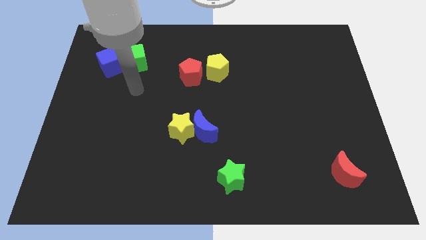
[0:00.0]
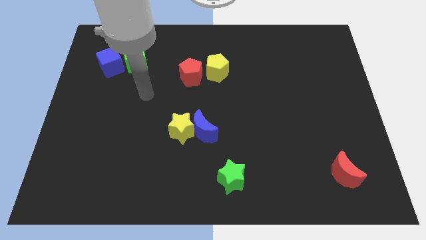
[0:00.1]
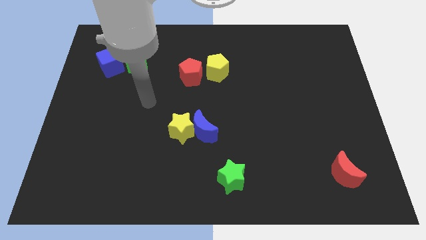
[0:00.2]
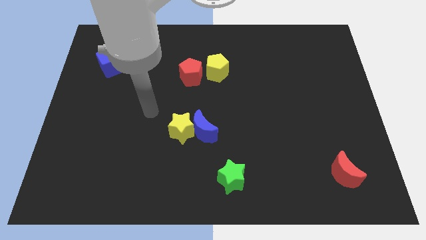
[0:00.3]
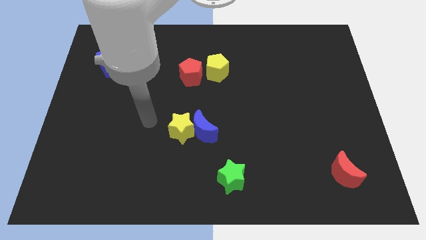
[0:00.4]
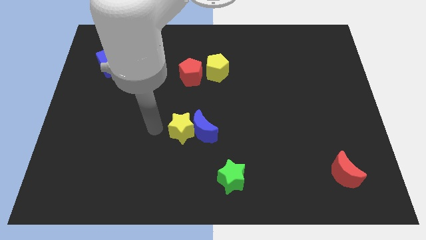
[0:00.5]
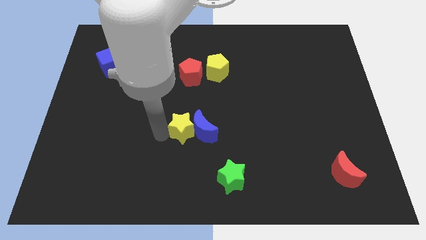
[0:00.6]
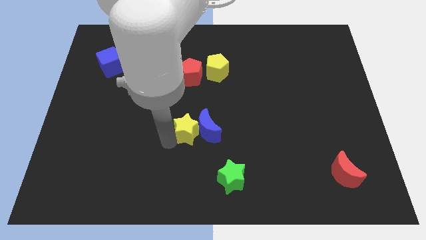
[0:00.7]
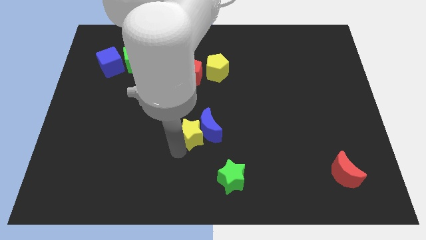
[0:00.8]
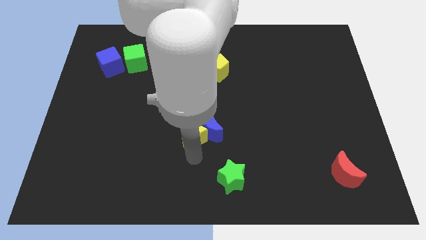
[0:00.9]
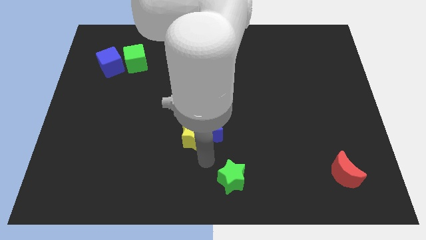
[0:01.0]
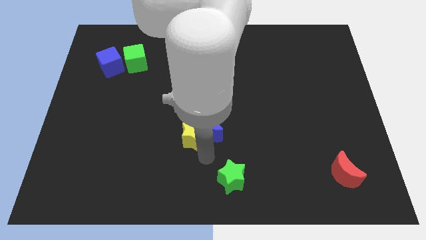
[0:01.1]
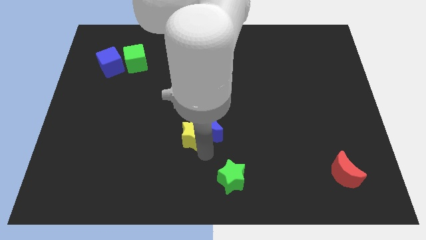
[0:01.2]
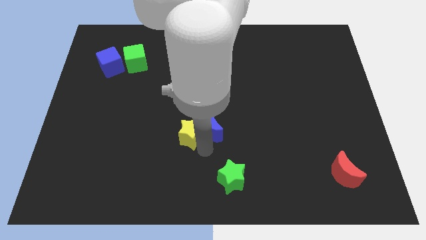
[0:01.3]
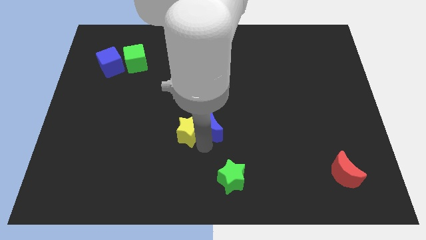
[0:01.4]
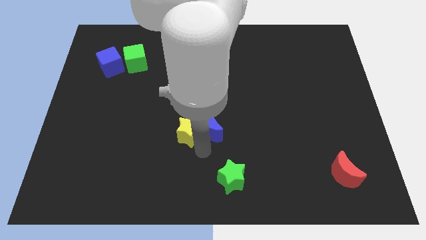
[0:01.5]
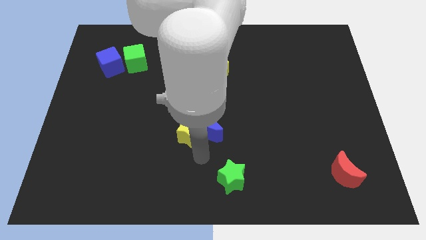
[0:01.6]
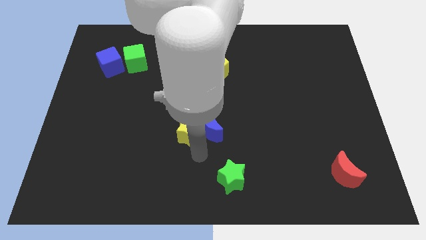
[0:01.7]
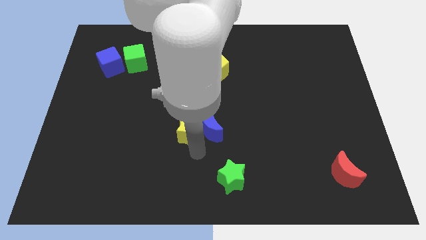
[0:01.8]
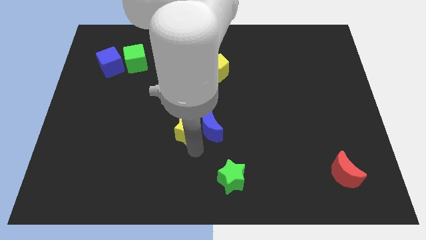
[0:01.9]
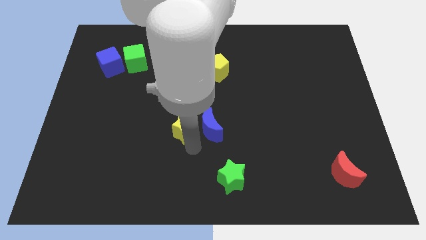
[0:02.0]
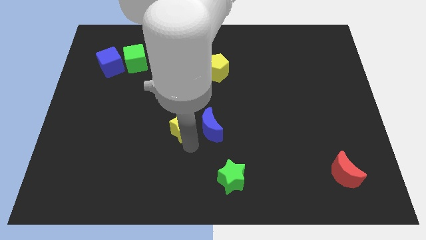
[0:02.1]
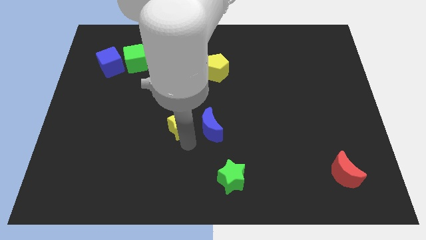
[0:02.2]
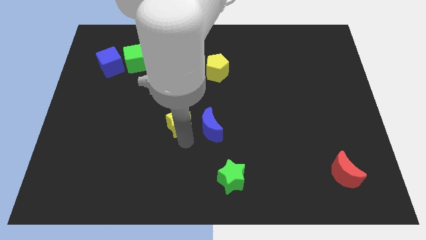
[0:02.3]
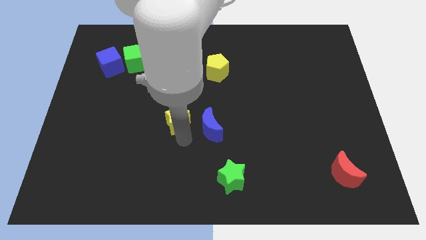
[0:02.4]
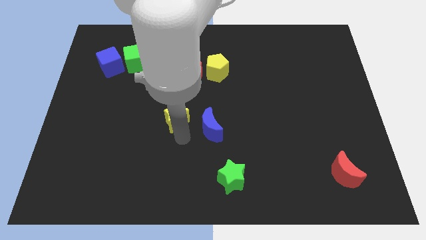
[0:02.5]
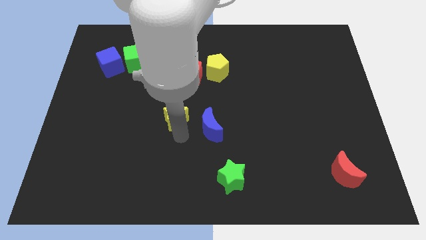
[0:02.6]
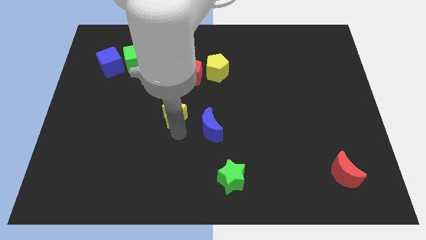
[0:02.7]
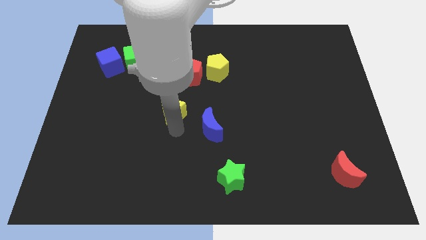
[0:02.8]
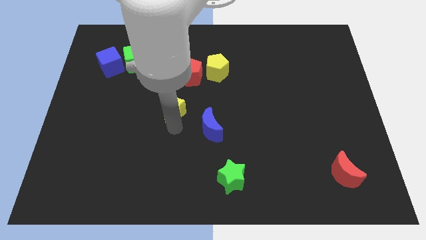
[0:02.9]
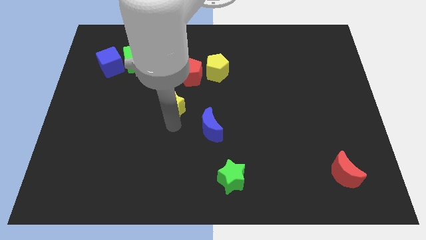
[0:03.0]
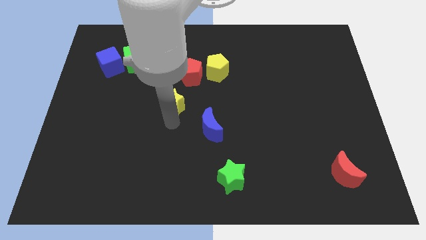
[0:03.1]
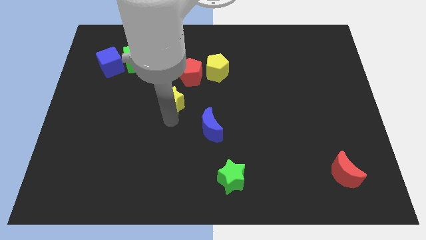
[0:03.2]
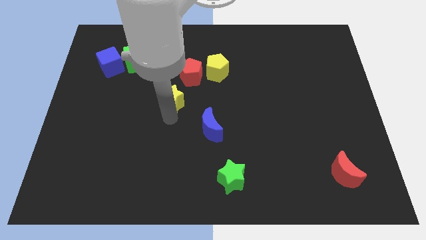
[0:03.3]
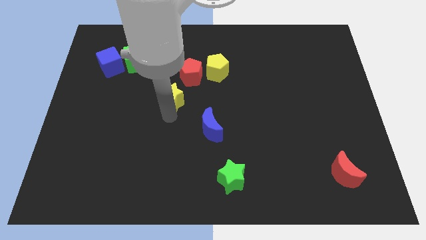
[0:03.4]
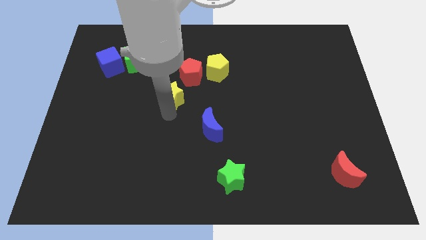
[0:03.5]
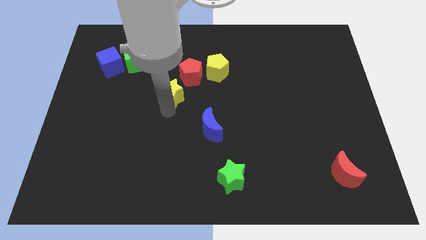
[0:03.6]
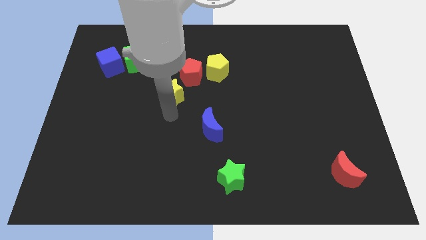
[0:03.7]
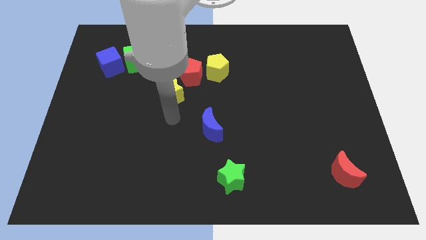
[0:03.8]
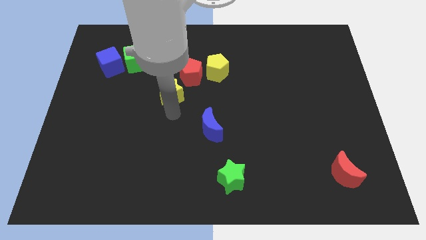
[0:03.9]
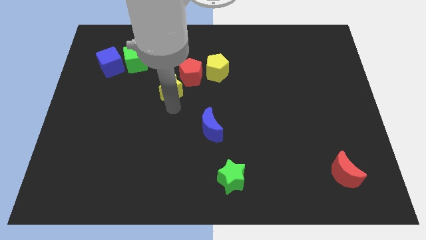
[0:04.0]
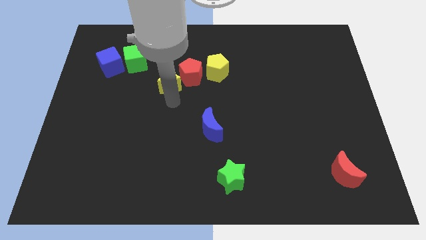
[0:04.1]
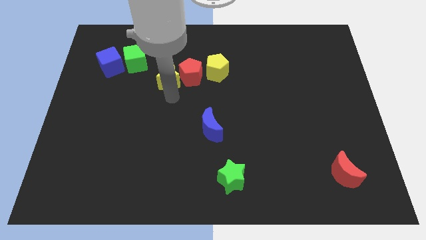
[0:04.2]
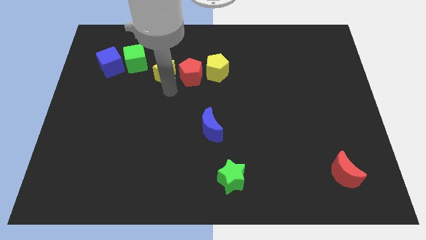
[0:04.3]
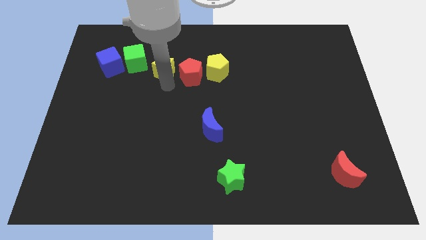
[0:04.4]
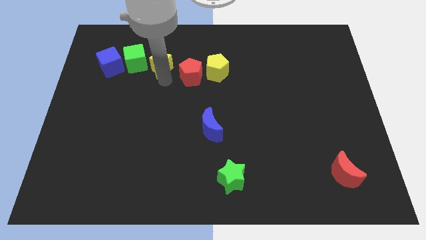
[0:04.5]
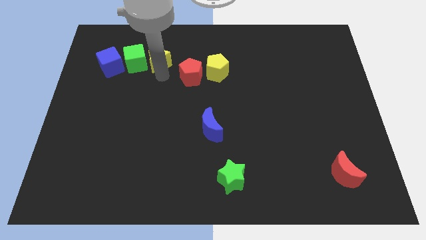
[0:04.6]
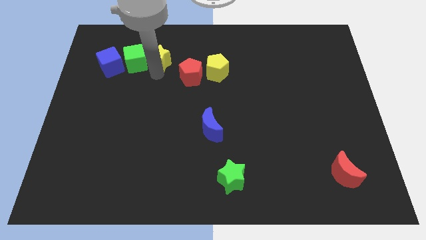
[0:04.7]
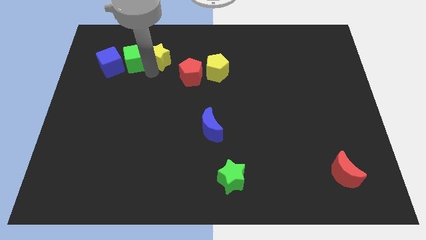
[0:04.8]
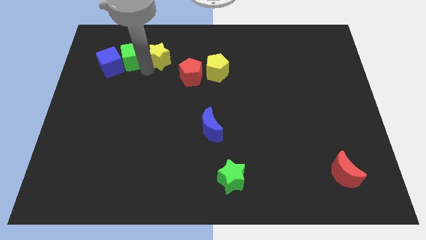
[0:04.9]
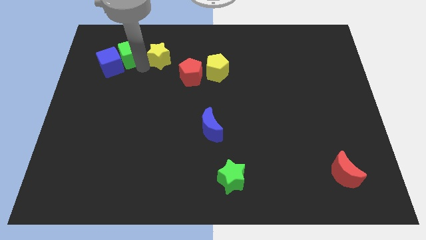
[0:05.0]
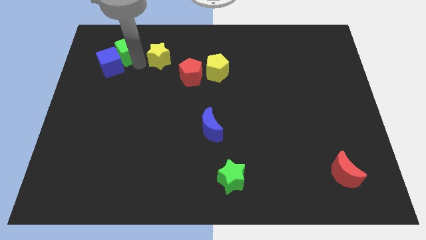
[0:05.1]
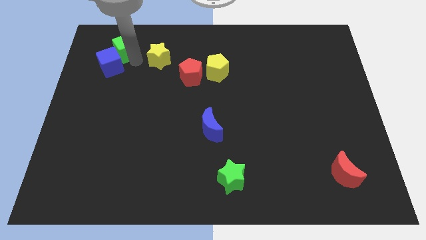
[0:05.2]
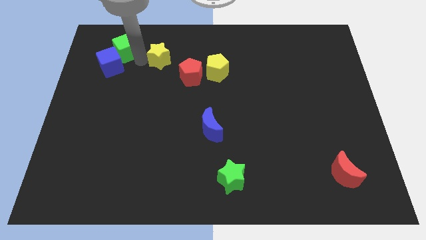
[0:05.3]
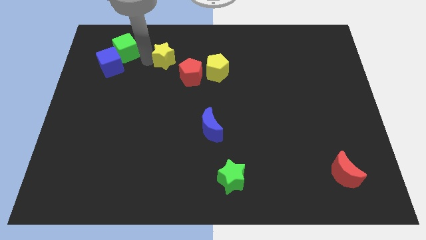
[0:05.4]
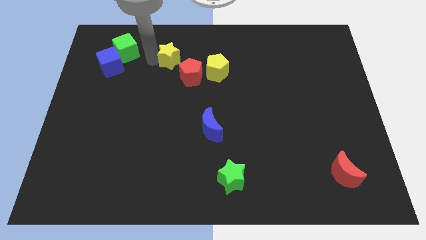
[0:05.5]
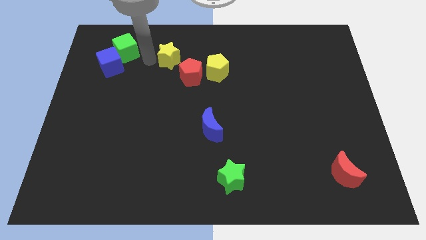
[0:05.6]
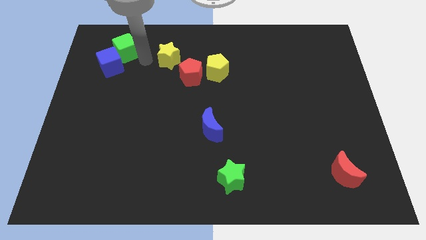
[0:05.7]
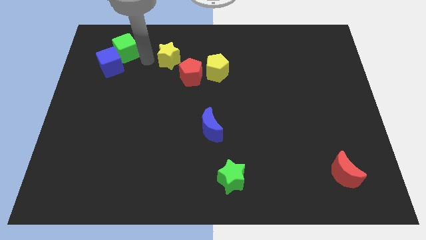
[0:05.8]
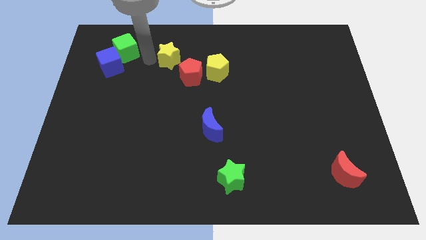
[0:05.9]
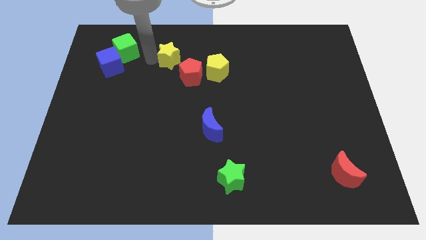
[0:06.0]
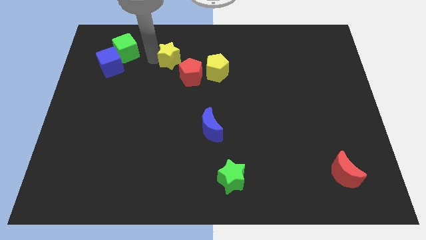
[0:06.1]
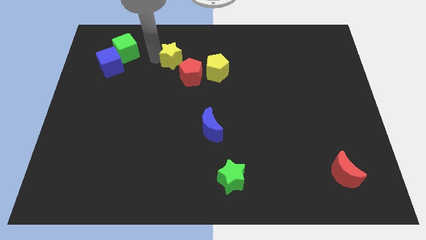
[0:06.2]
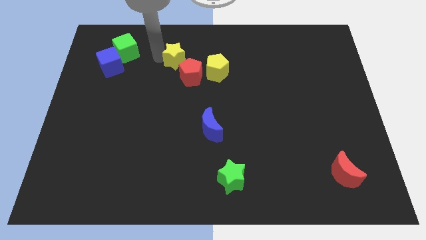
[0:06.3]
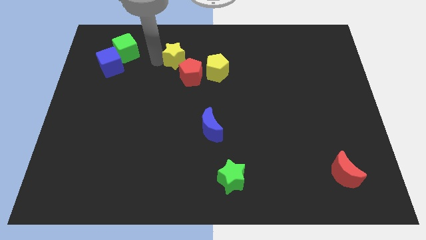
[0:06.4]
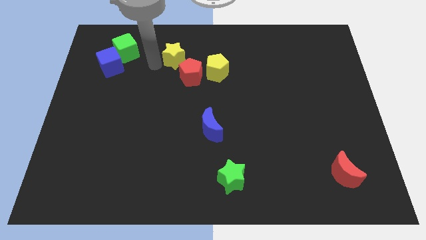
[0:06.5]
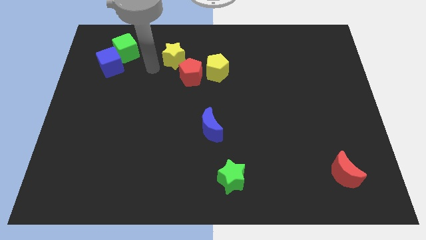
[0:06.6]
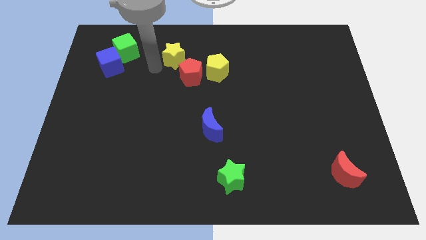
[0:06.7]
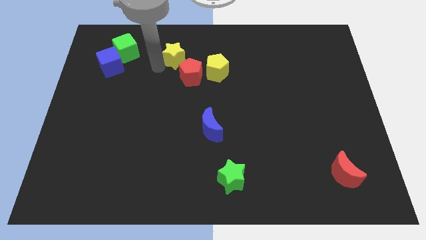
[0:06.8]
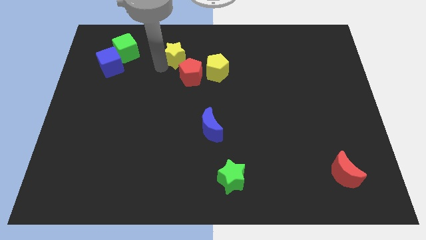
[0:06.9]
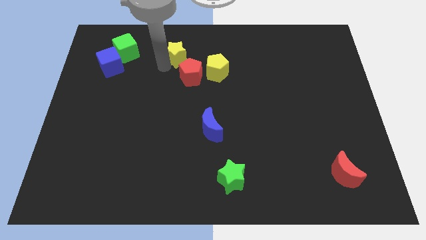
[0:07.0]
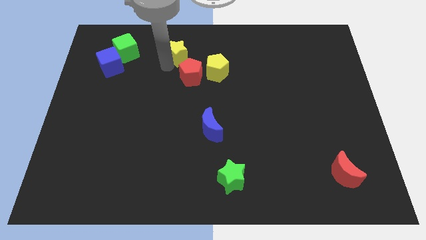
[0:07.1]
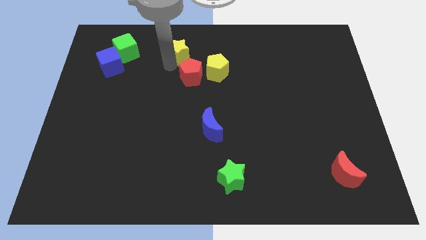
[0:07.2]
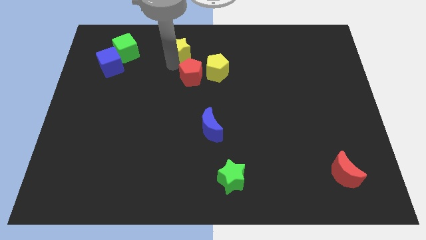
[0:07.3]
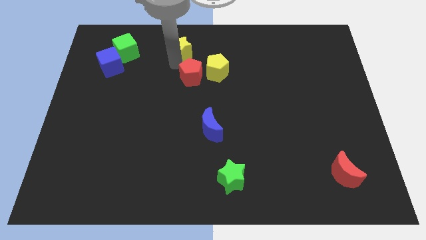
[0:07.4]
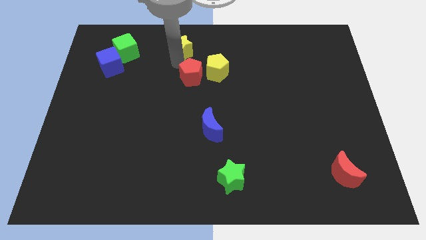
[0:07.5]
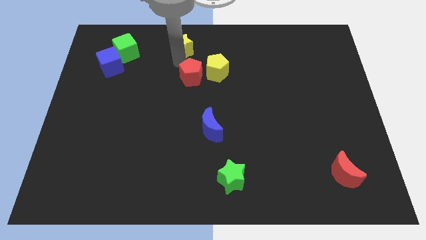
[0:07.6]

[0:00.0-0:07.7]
slide the yellow star to the top
